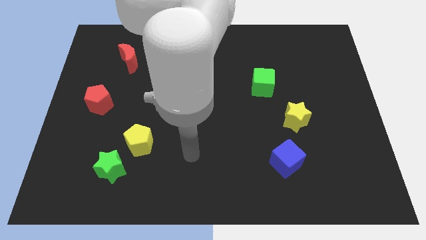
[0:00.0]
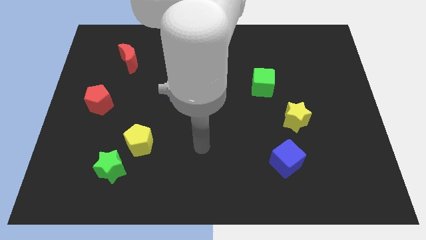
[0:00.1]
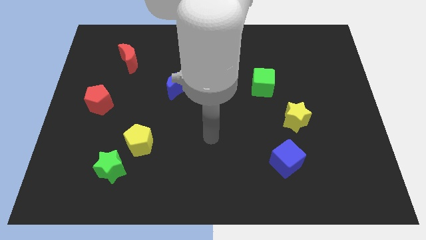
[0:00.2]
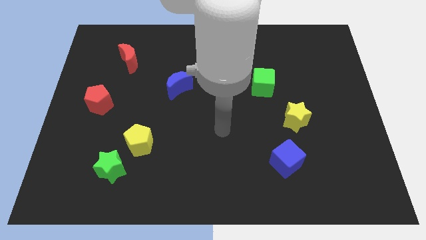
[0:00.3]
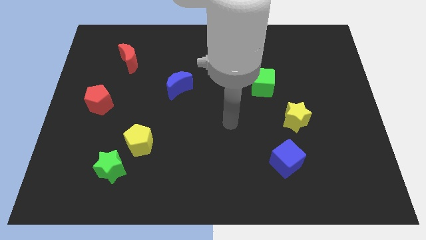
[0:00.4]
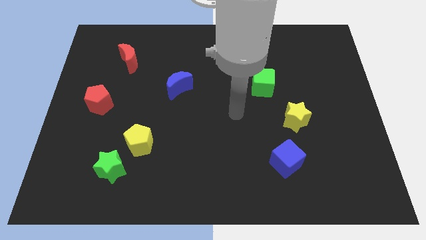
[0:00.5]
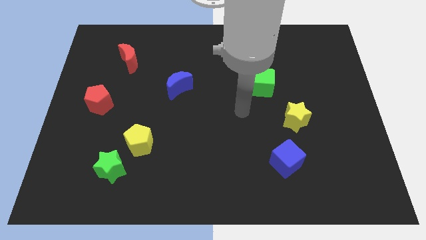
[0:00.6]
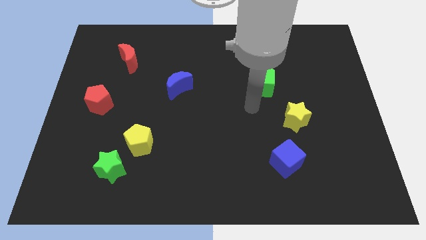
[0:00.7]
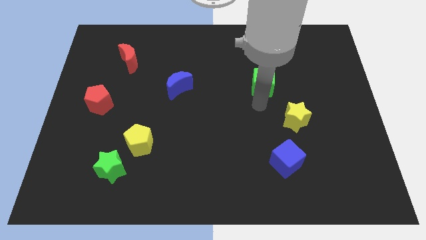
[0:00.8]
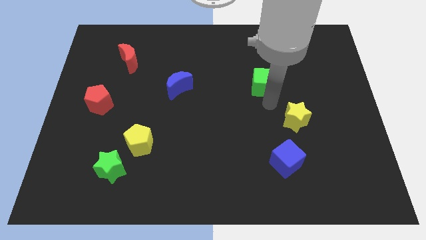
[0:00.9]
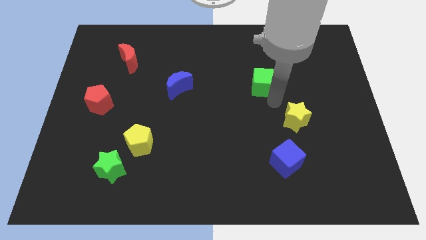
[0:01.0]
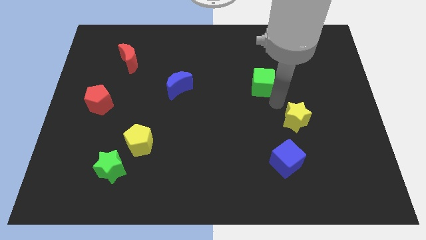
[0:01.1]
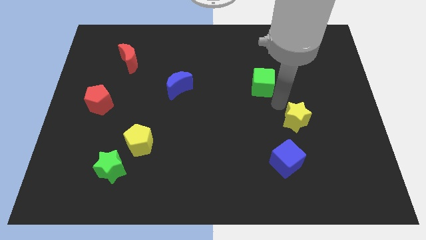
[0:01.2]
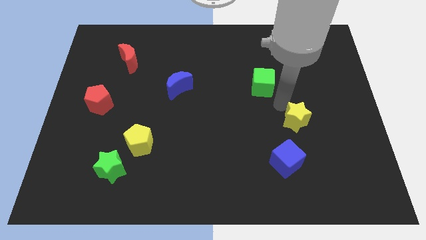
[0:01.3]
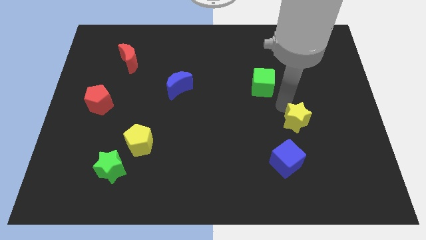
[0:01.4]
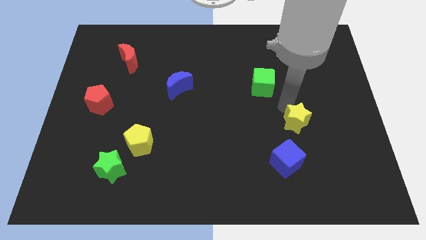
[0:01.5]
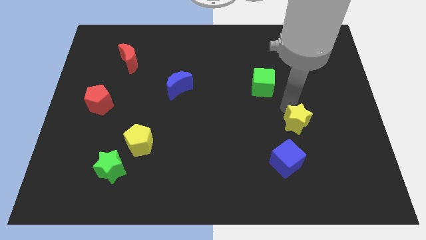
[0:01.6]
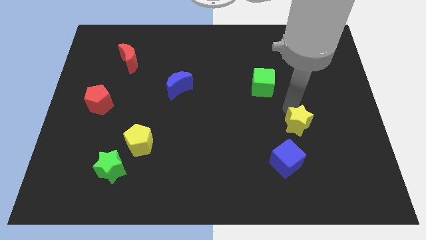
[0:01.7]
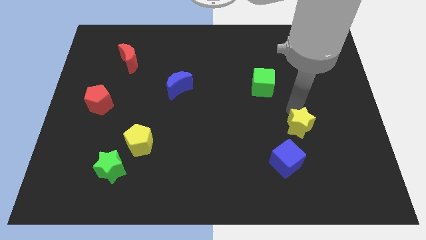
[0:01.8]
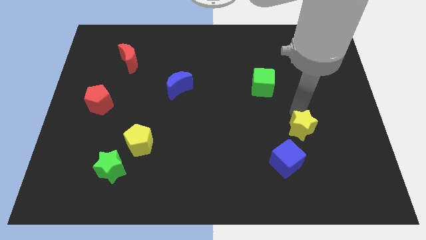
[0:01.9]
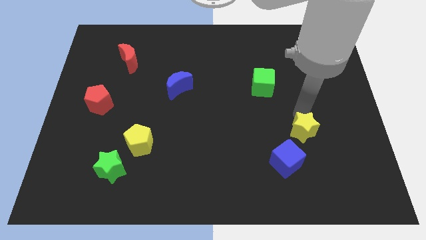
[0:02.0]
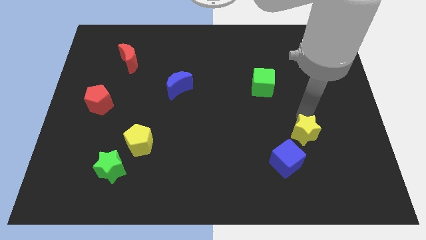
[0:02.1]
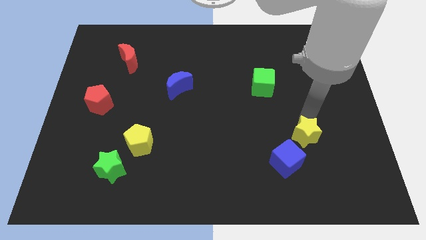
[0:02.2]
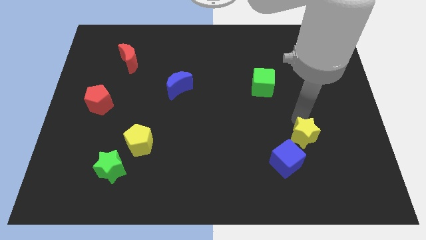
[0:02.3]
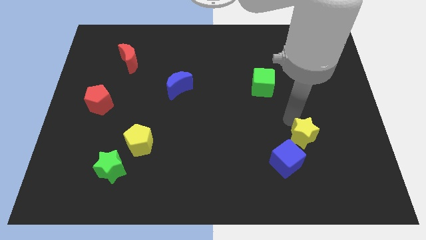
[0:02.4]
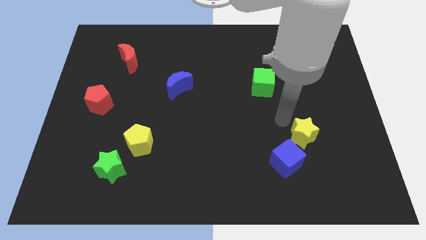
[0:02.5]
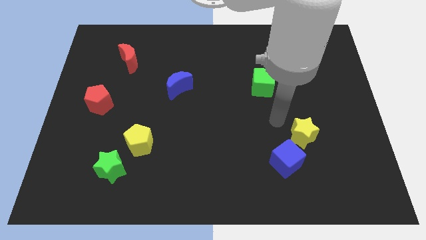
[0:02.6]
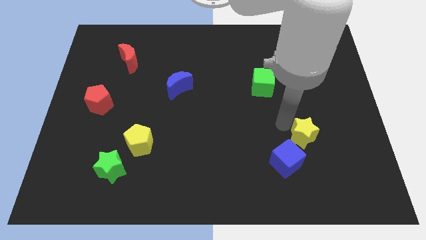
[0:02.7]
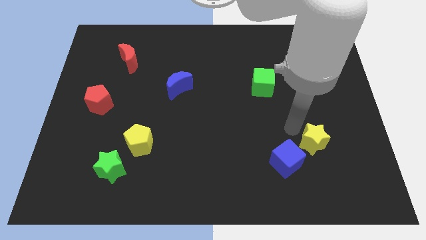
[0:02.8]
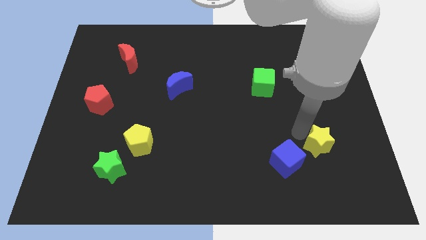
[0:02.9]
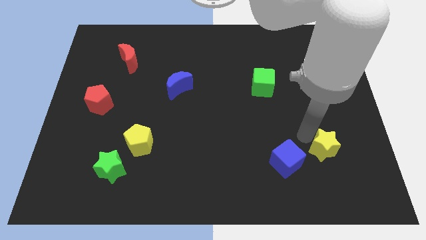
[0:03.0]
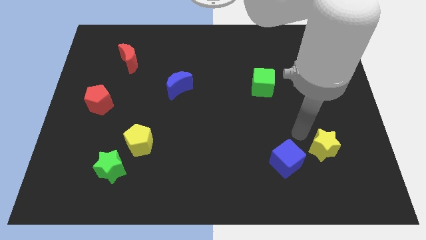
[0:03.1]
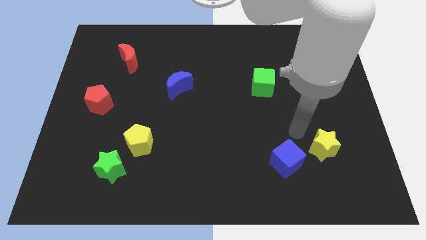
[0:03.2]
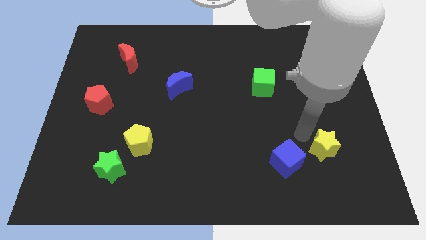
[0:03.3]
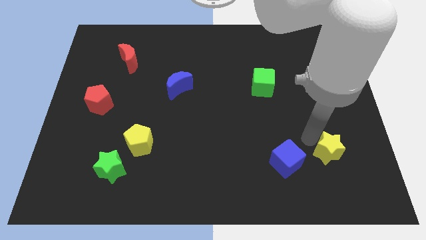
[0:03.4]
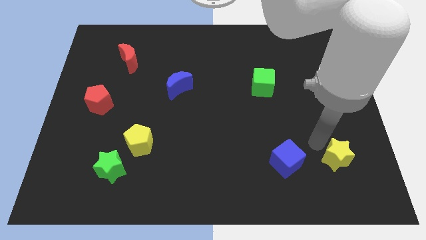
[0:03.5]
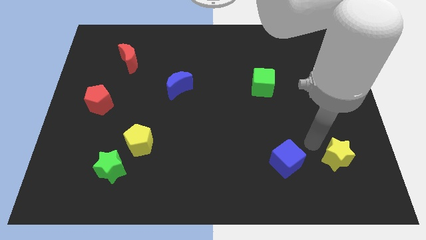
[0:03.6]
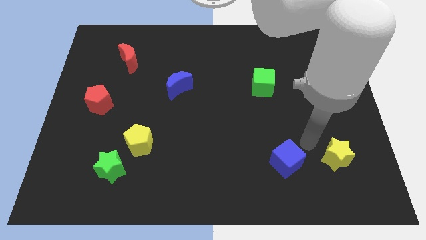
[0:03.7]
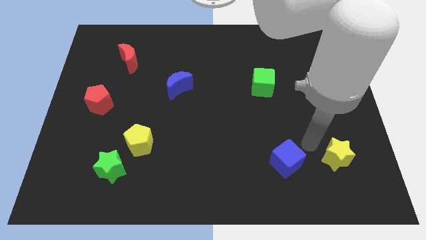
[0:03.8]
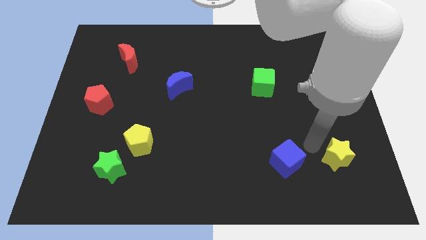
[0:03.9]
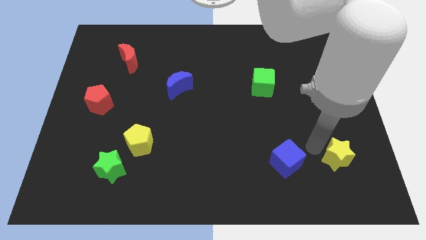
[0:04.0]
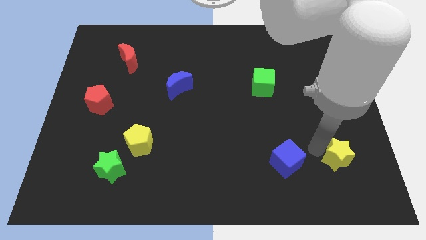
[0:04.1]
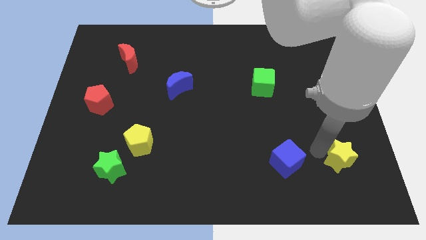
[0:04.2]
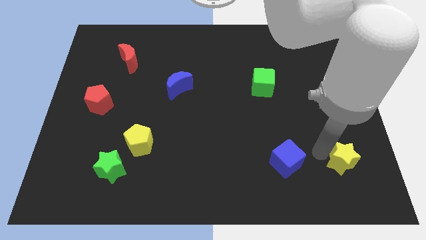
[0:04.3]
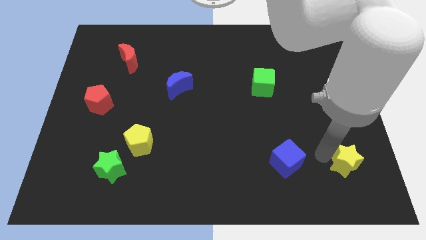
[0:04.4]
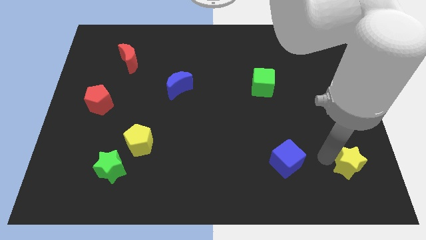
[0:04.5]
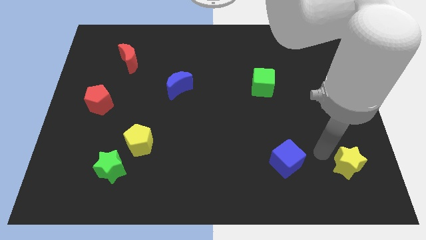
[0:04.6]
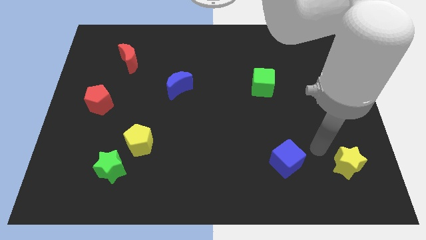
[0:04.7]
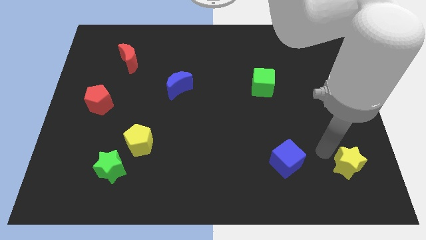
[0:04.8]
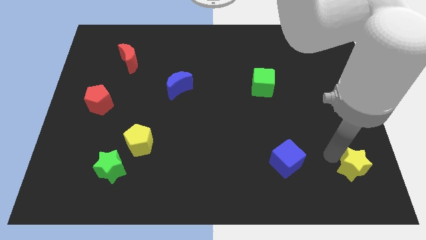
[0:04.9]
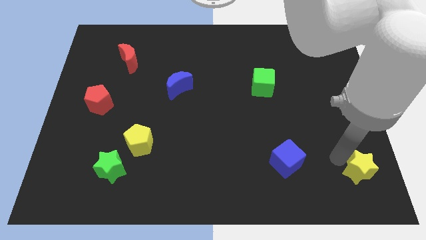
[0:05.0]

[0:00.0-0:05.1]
slide the yellow star to the bottom right of the board
